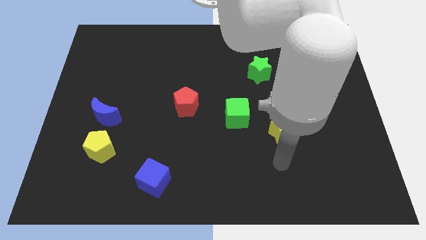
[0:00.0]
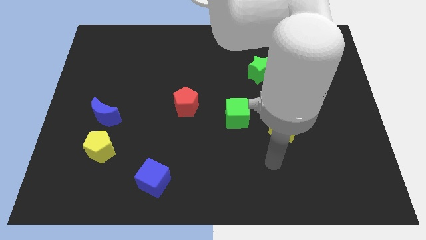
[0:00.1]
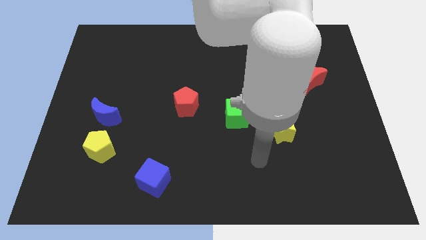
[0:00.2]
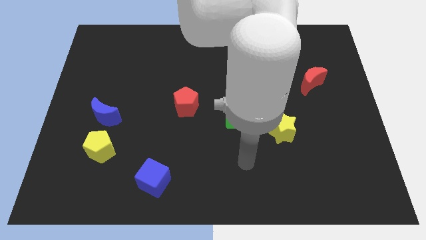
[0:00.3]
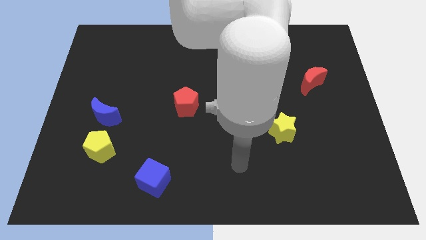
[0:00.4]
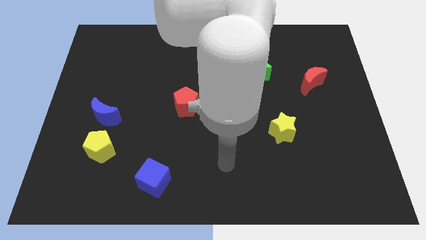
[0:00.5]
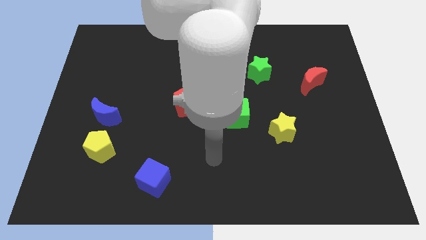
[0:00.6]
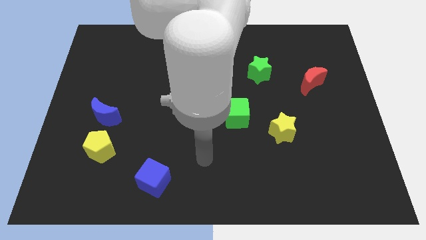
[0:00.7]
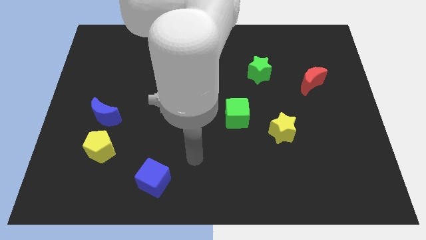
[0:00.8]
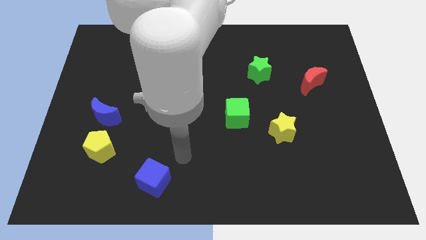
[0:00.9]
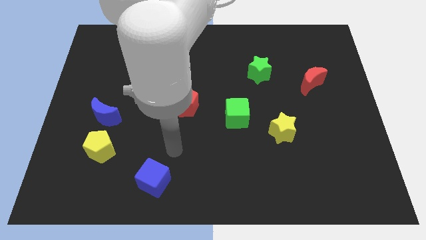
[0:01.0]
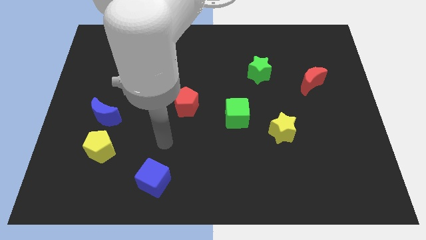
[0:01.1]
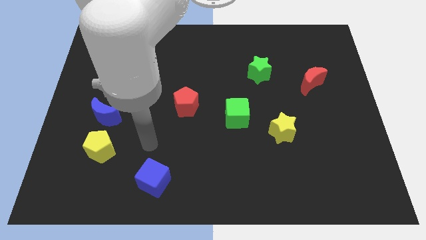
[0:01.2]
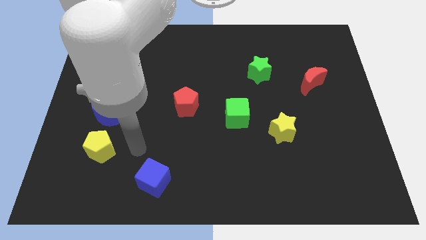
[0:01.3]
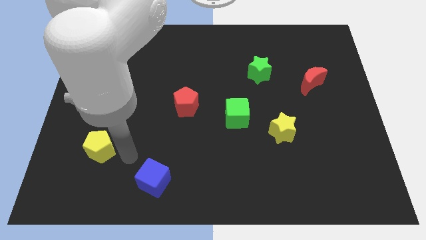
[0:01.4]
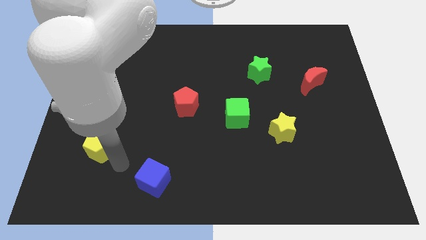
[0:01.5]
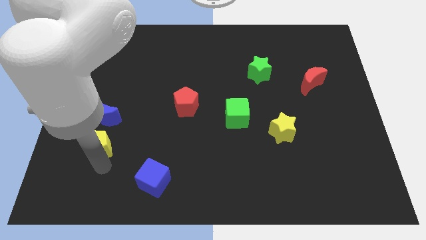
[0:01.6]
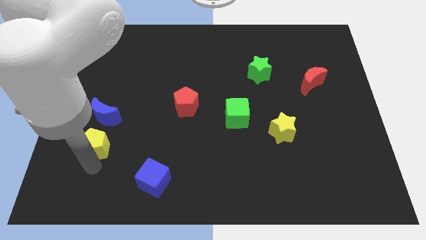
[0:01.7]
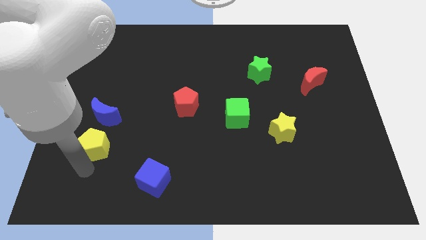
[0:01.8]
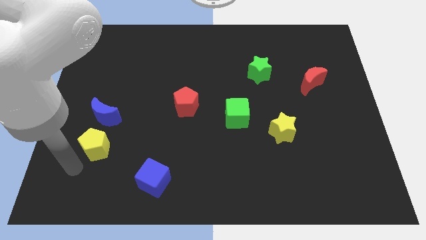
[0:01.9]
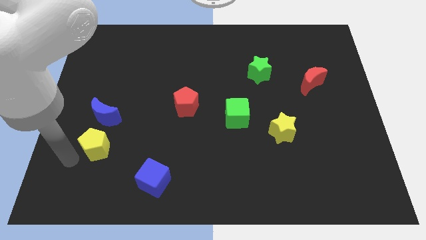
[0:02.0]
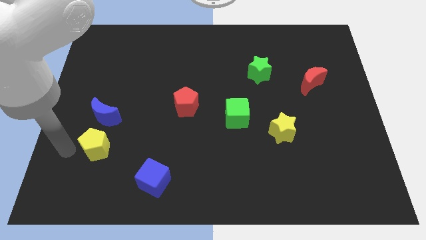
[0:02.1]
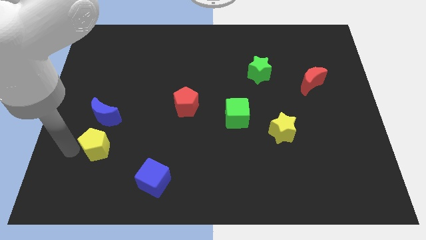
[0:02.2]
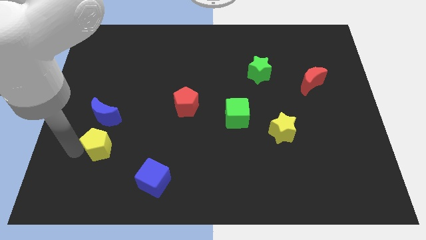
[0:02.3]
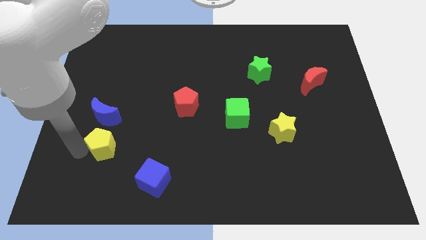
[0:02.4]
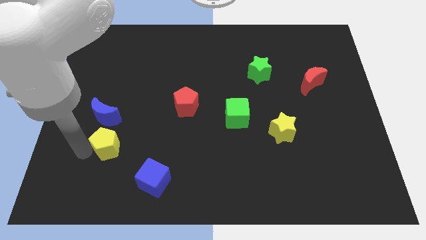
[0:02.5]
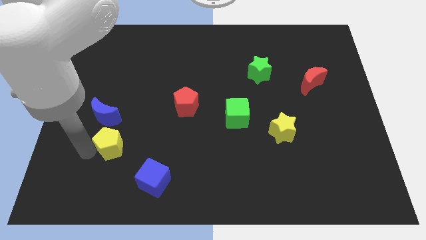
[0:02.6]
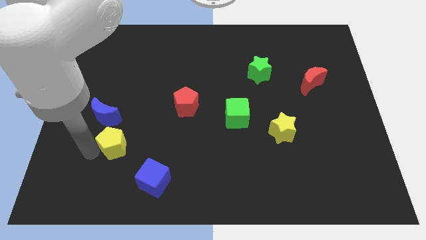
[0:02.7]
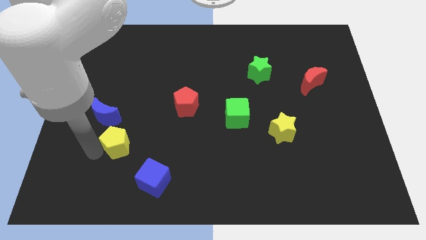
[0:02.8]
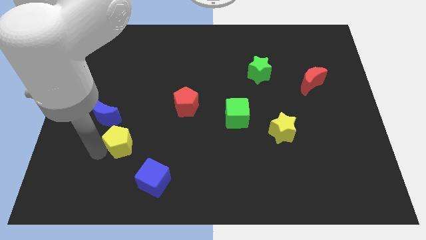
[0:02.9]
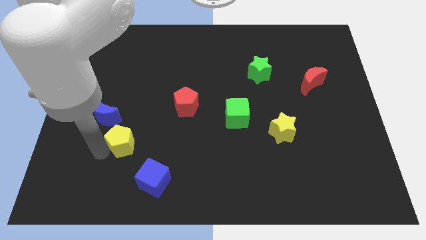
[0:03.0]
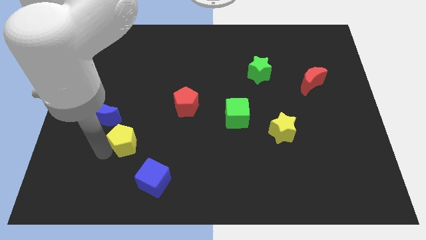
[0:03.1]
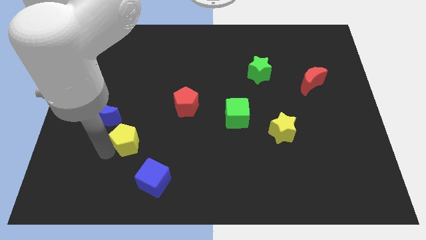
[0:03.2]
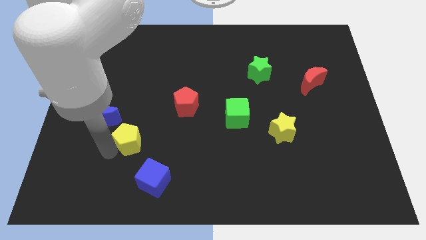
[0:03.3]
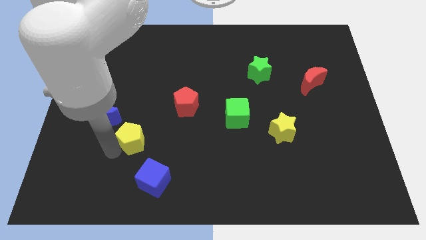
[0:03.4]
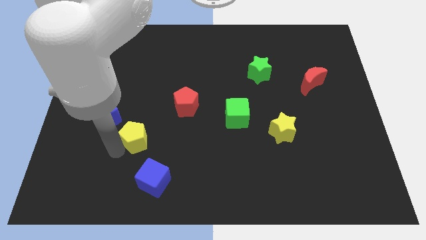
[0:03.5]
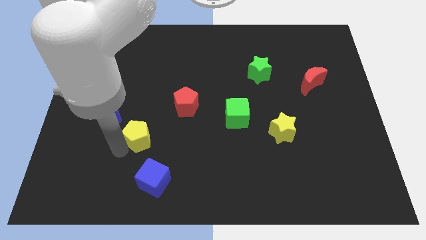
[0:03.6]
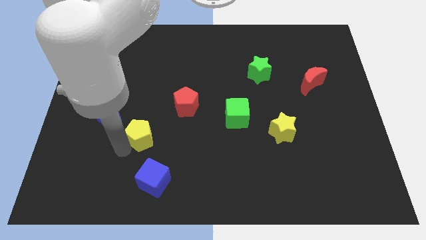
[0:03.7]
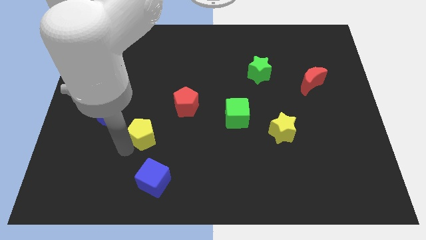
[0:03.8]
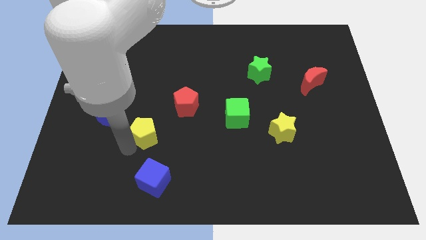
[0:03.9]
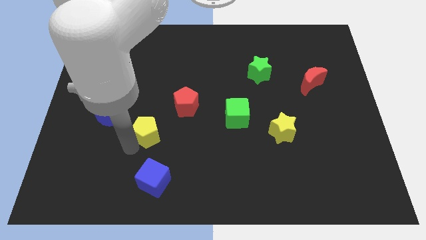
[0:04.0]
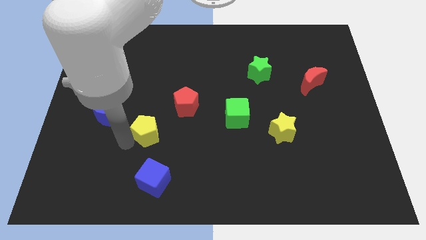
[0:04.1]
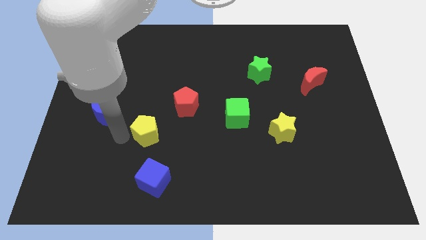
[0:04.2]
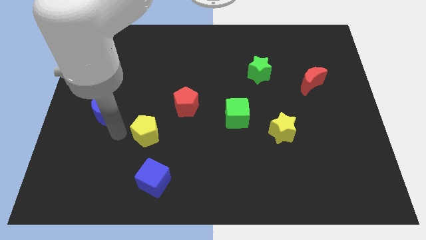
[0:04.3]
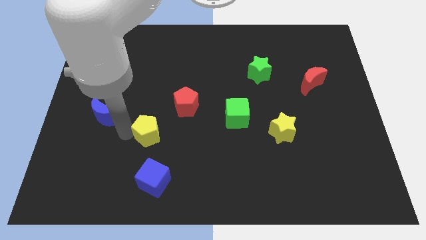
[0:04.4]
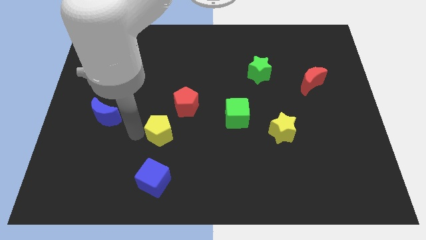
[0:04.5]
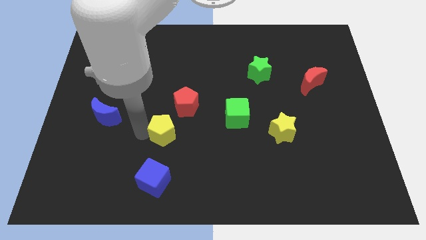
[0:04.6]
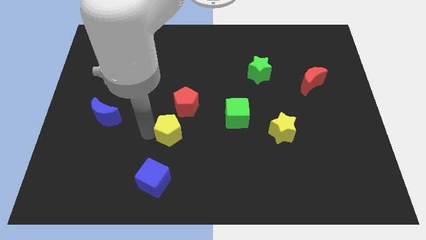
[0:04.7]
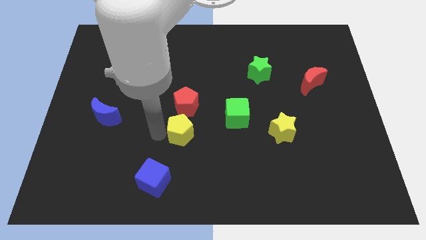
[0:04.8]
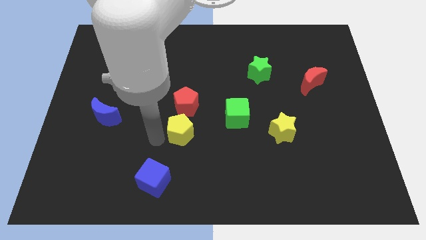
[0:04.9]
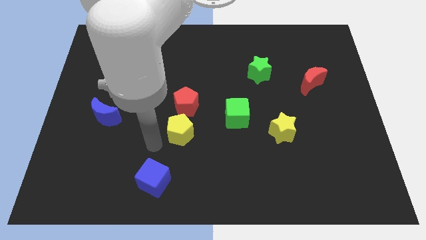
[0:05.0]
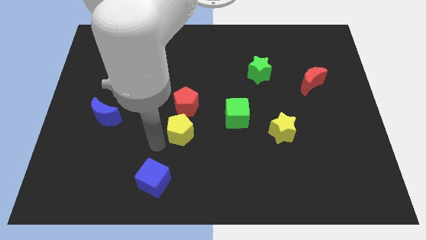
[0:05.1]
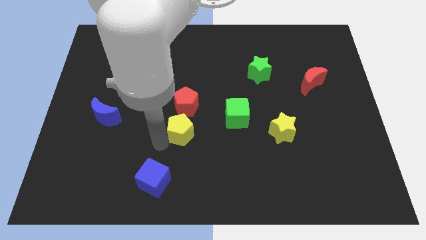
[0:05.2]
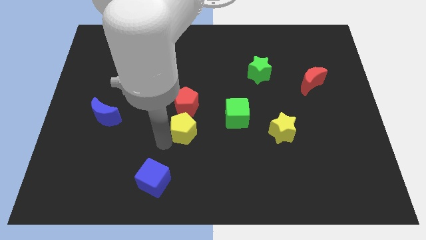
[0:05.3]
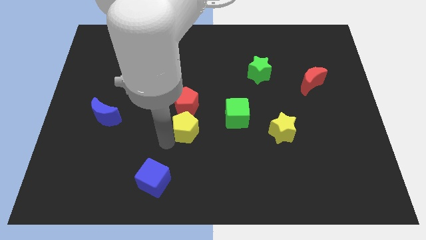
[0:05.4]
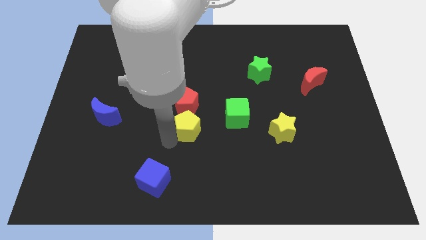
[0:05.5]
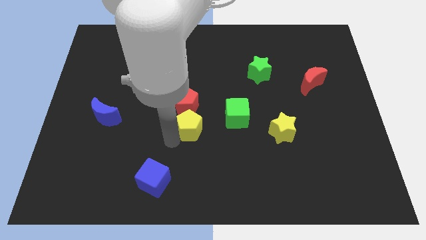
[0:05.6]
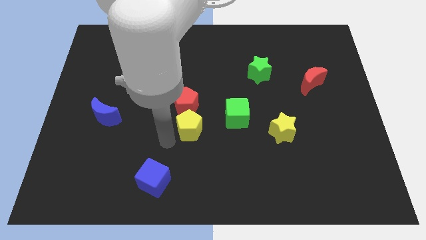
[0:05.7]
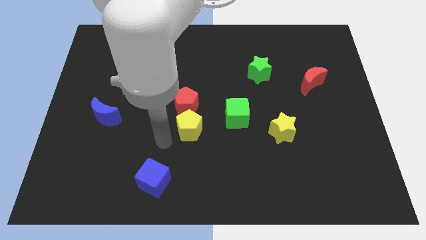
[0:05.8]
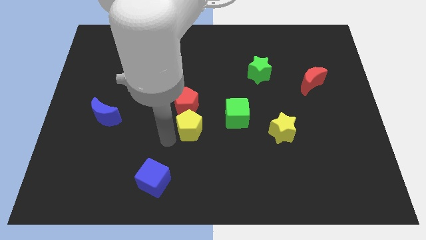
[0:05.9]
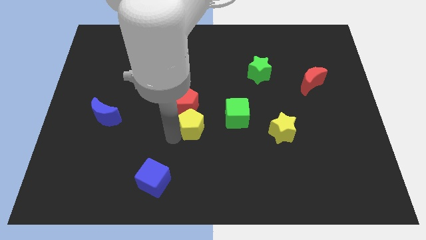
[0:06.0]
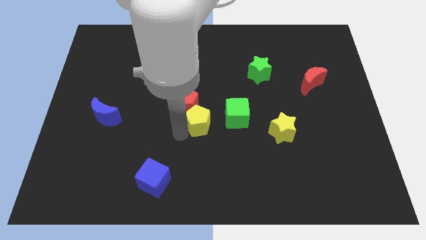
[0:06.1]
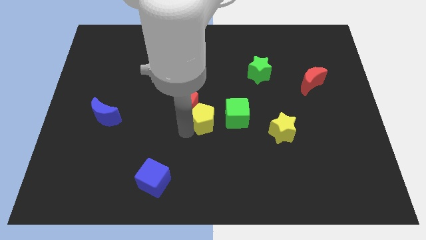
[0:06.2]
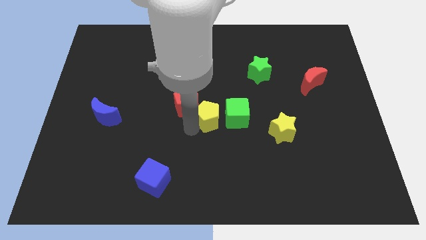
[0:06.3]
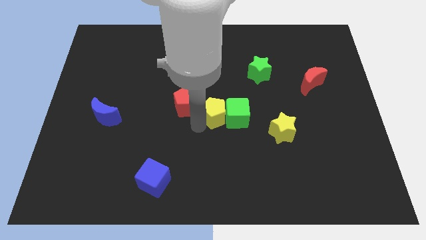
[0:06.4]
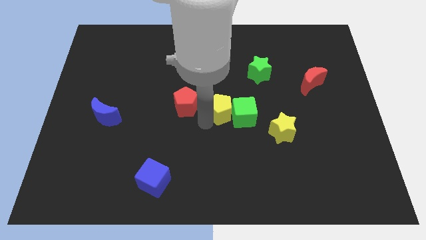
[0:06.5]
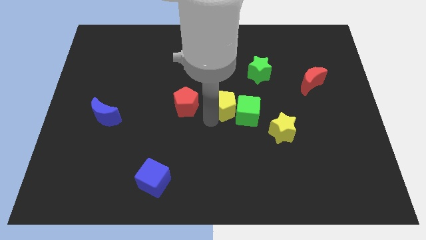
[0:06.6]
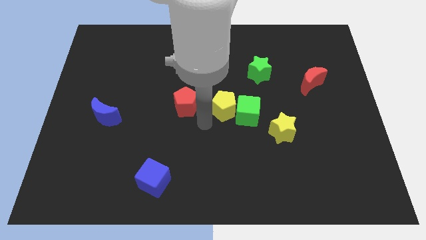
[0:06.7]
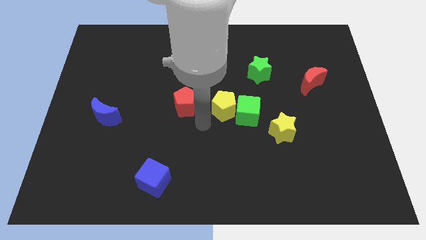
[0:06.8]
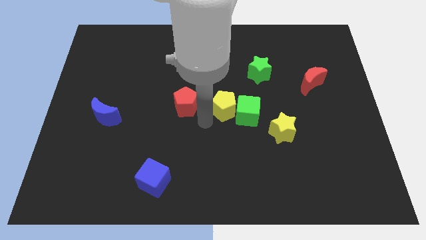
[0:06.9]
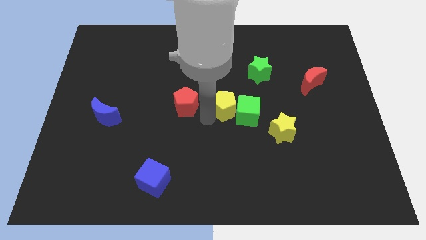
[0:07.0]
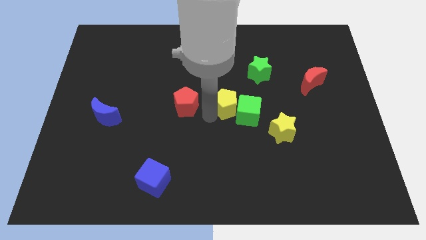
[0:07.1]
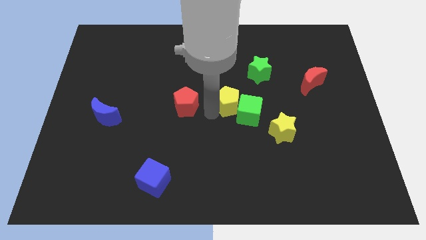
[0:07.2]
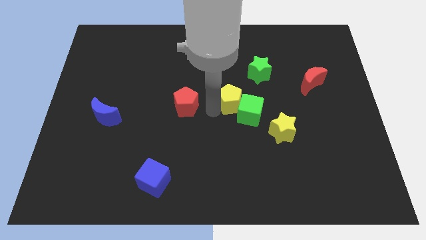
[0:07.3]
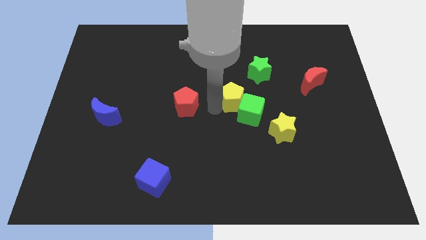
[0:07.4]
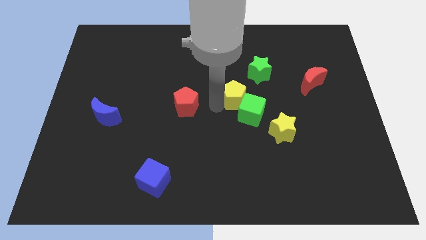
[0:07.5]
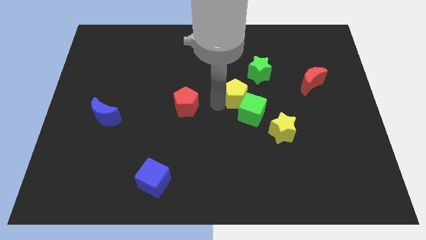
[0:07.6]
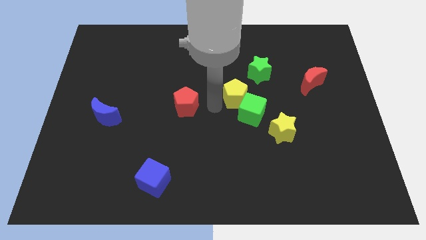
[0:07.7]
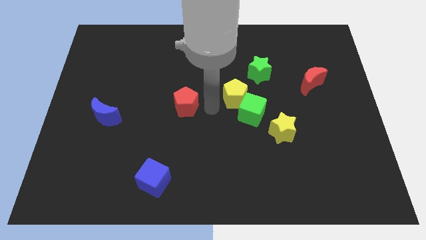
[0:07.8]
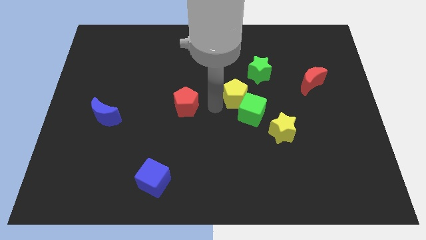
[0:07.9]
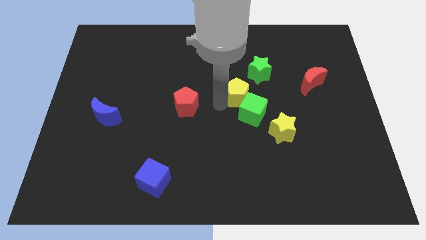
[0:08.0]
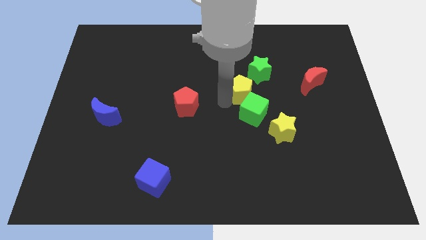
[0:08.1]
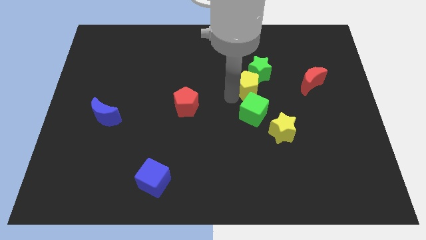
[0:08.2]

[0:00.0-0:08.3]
put the yellow pentagon to the left side of the red moon
